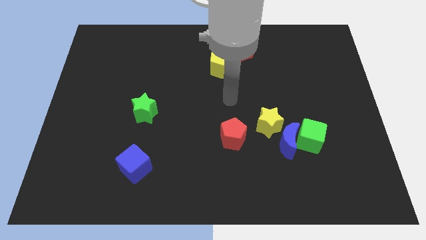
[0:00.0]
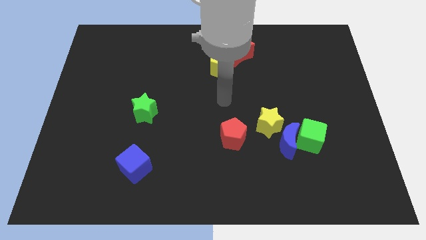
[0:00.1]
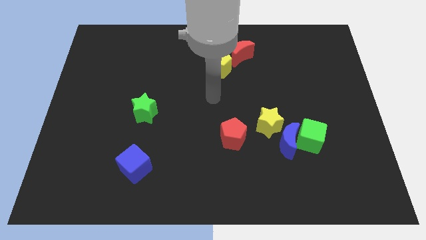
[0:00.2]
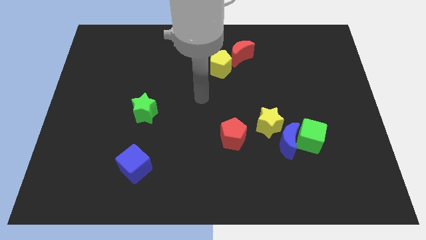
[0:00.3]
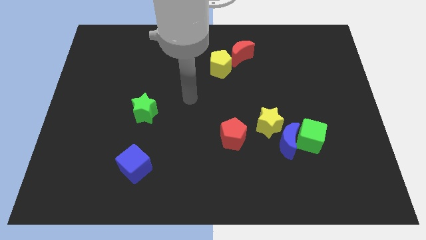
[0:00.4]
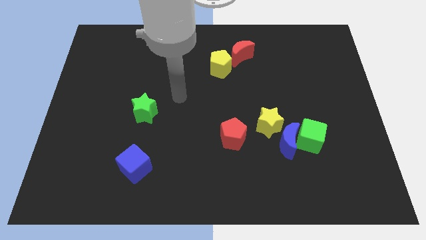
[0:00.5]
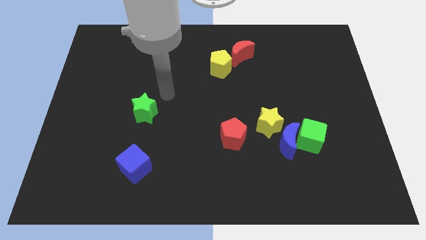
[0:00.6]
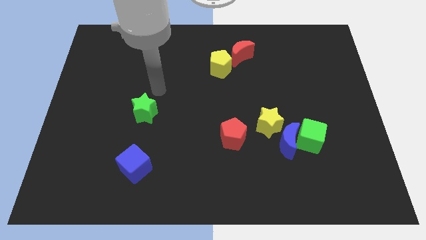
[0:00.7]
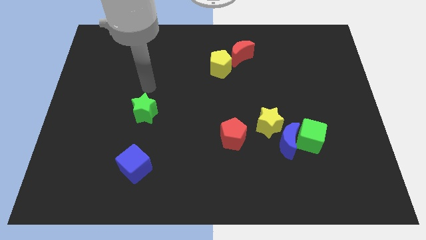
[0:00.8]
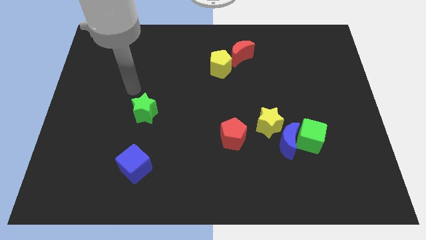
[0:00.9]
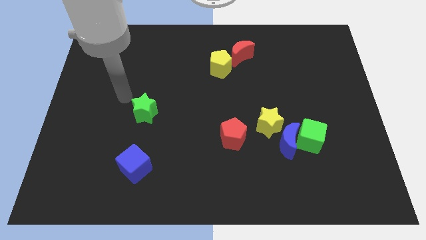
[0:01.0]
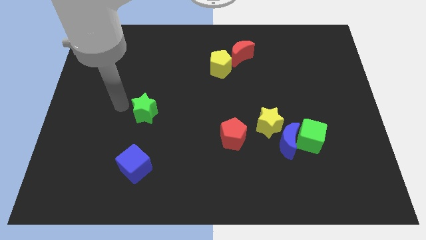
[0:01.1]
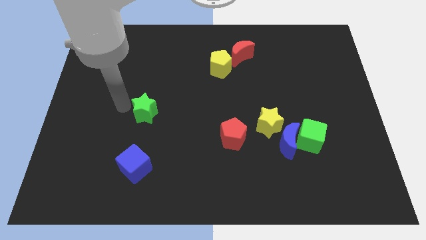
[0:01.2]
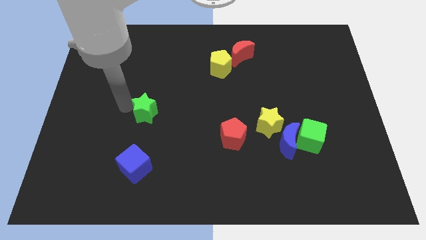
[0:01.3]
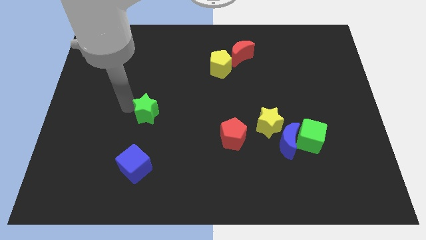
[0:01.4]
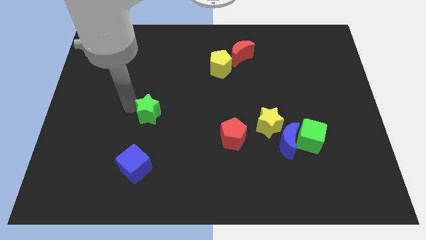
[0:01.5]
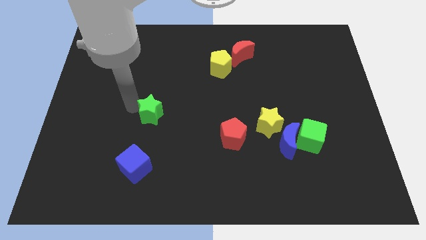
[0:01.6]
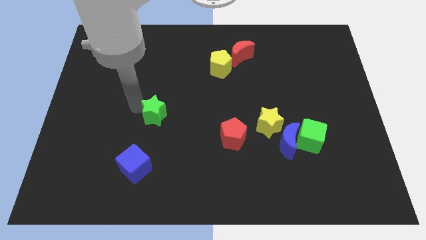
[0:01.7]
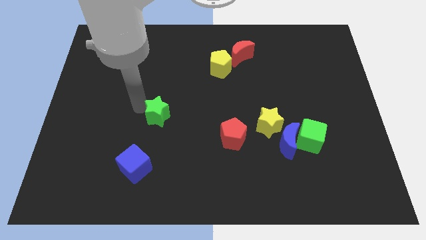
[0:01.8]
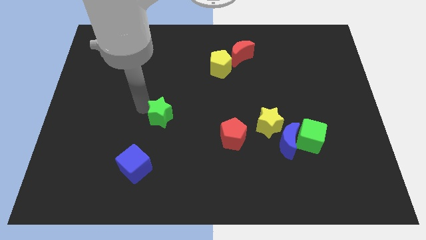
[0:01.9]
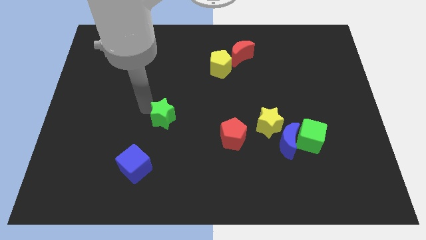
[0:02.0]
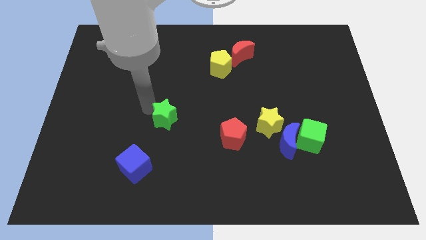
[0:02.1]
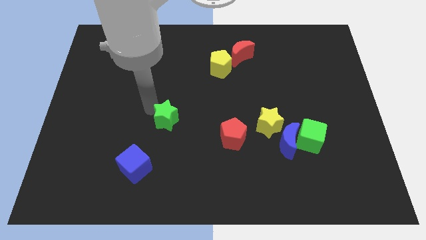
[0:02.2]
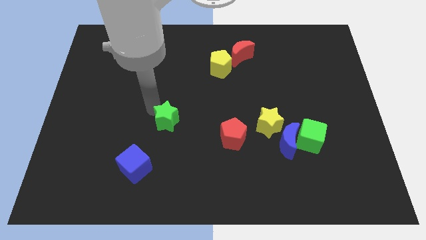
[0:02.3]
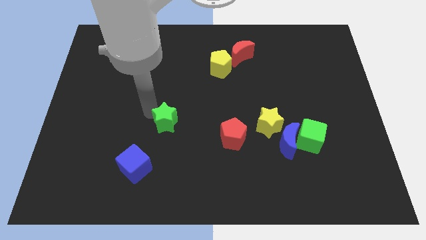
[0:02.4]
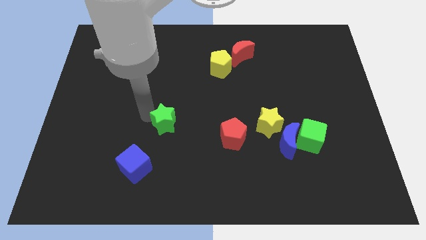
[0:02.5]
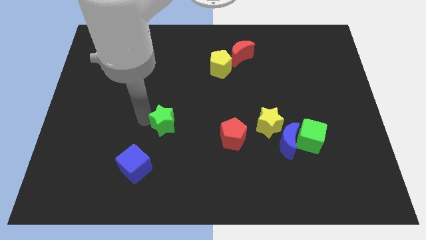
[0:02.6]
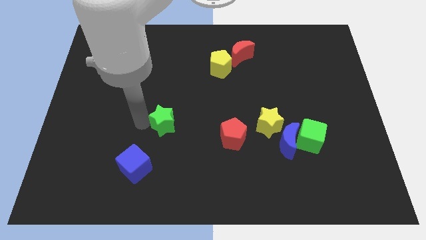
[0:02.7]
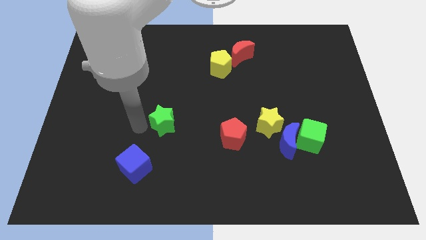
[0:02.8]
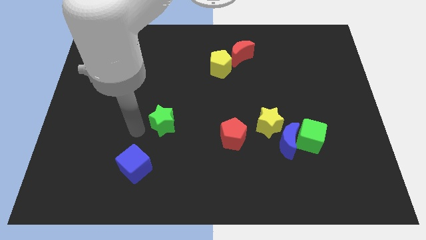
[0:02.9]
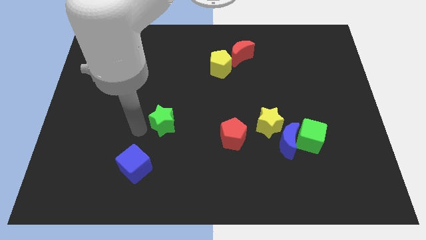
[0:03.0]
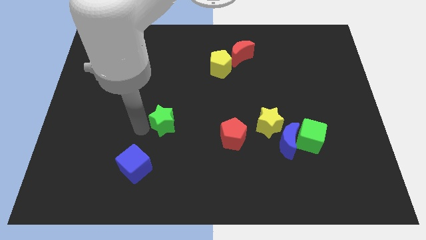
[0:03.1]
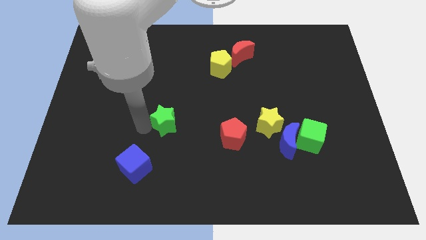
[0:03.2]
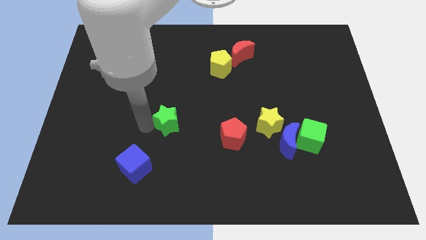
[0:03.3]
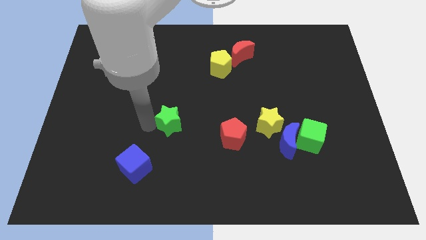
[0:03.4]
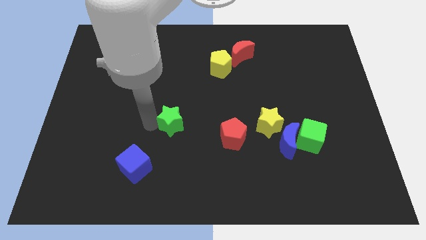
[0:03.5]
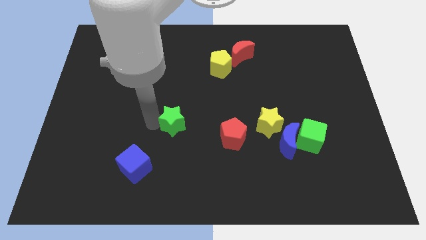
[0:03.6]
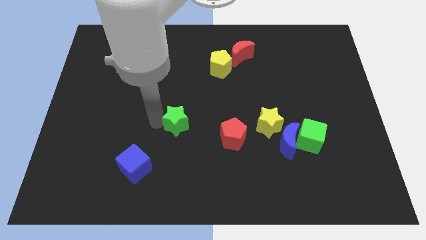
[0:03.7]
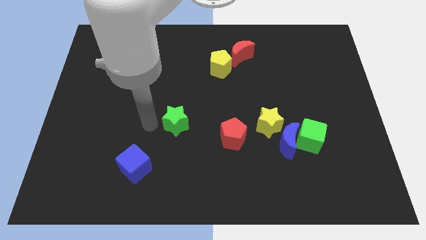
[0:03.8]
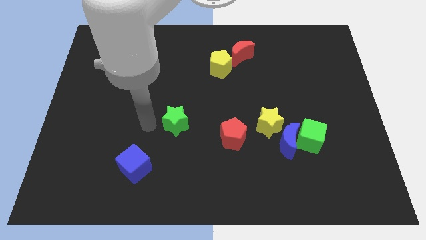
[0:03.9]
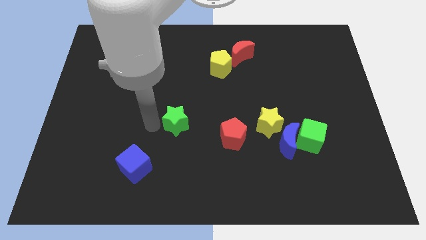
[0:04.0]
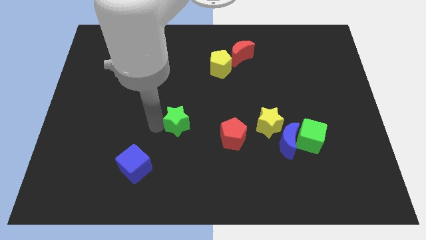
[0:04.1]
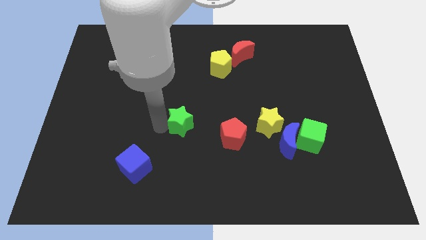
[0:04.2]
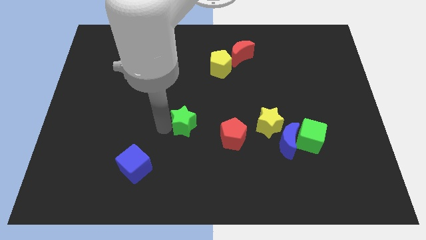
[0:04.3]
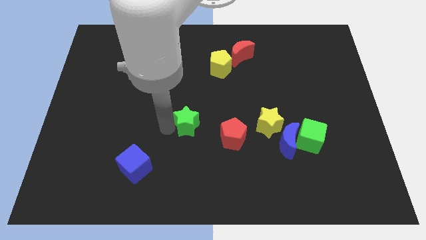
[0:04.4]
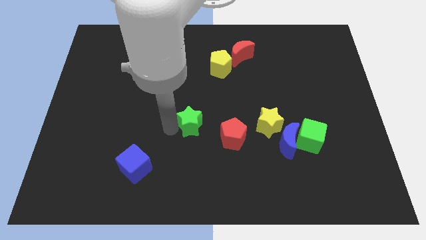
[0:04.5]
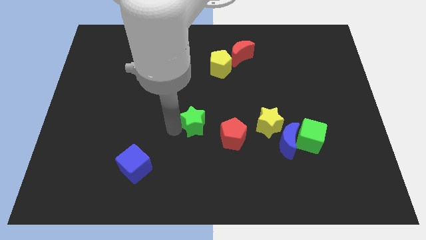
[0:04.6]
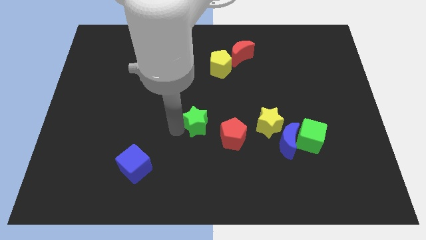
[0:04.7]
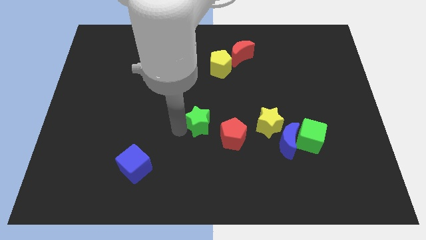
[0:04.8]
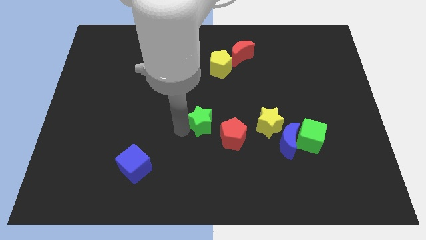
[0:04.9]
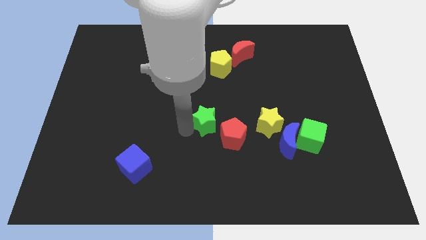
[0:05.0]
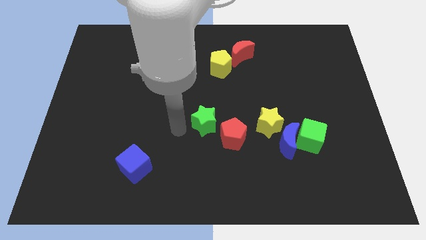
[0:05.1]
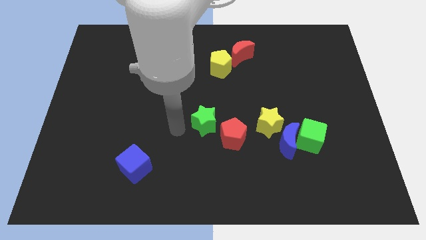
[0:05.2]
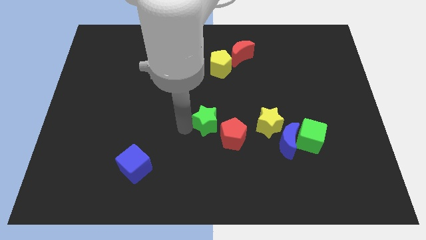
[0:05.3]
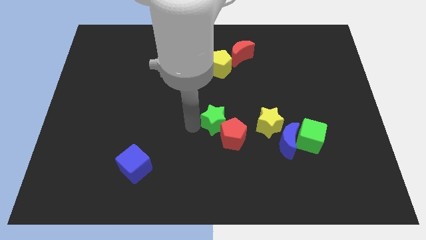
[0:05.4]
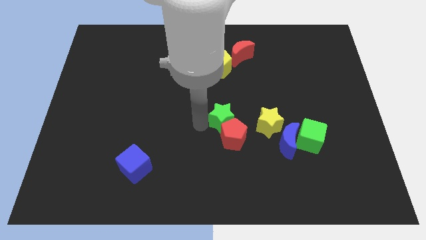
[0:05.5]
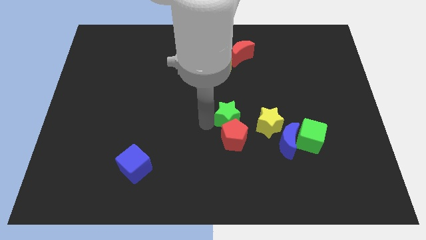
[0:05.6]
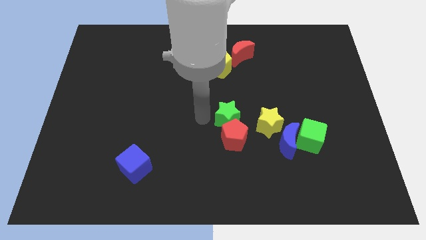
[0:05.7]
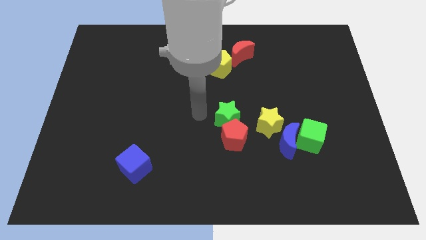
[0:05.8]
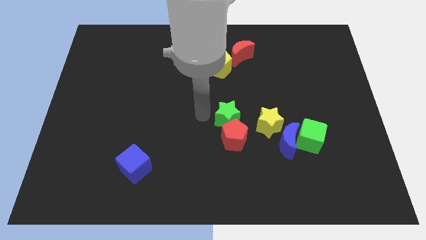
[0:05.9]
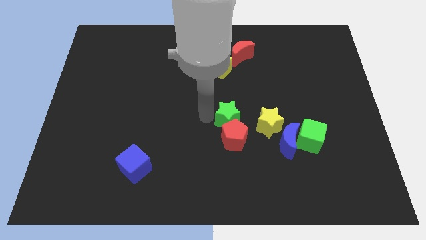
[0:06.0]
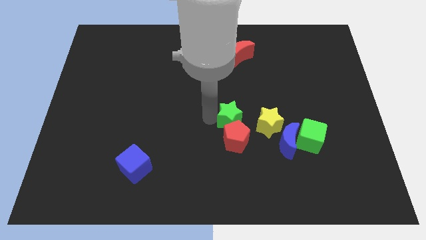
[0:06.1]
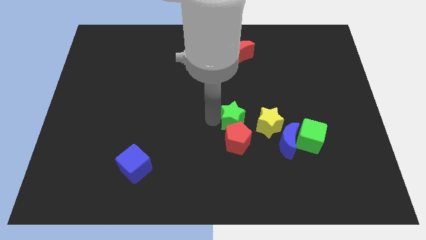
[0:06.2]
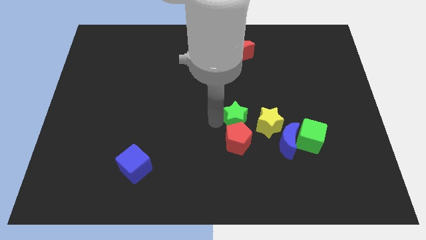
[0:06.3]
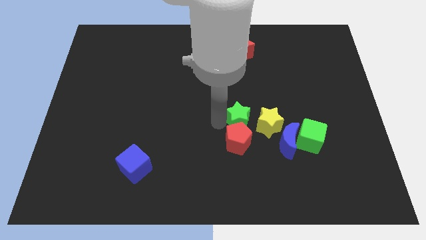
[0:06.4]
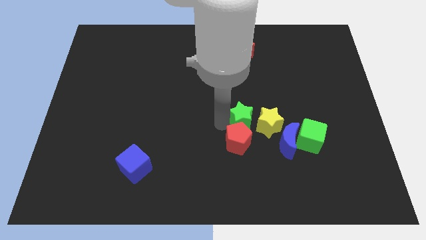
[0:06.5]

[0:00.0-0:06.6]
slide the green star to the top left of the blue moon
